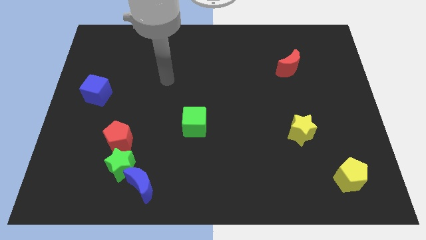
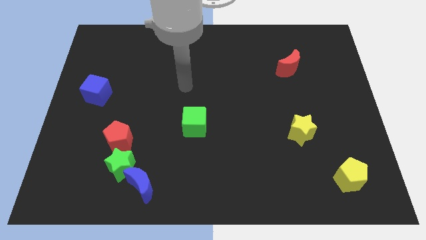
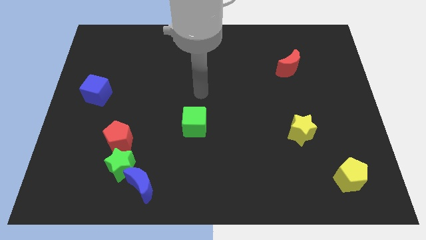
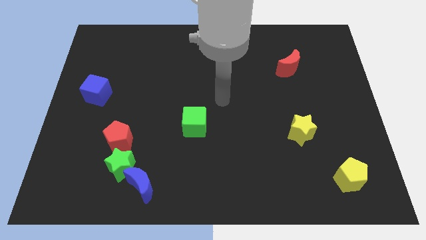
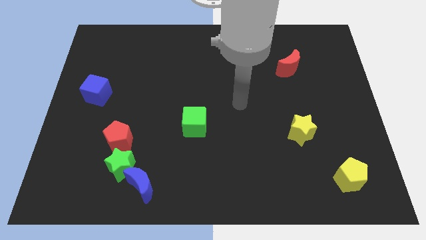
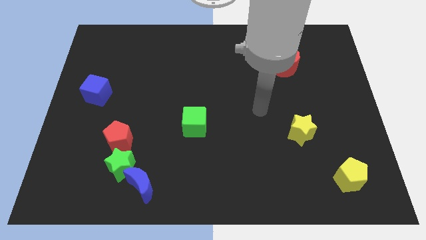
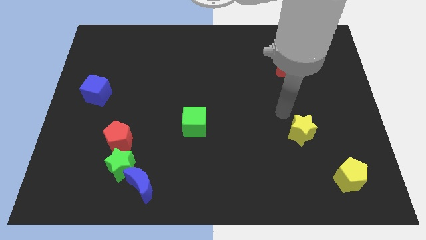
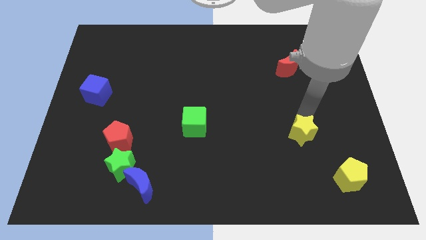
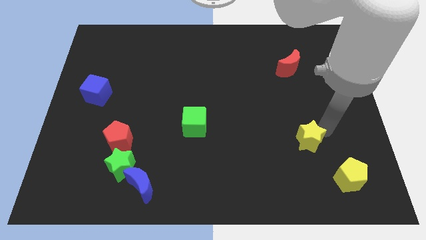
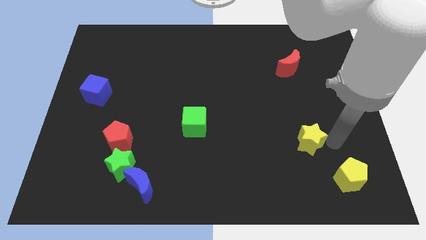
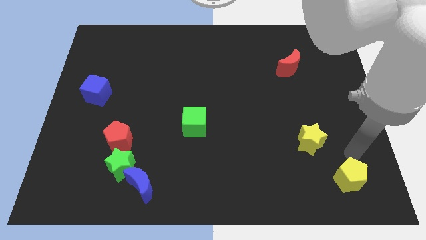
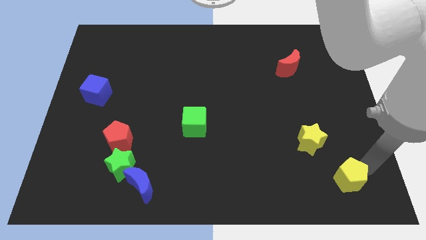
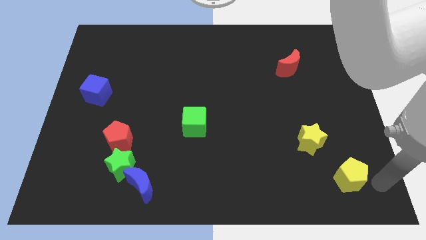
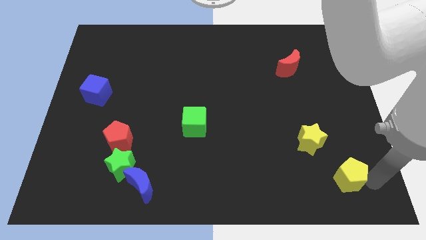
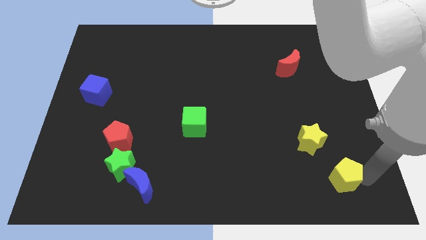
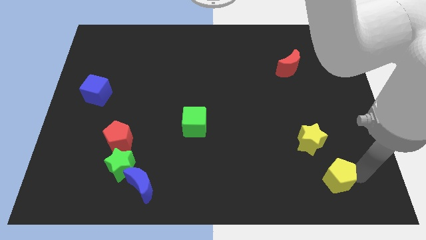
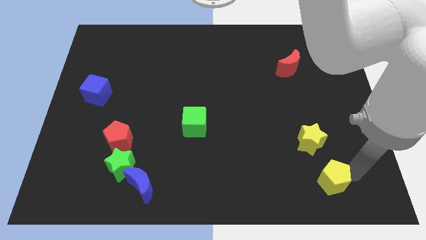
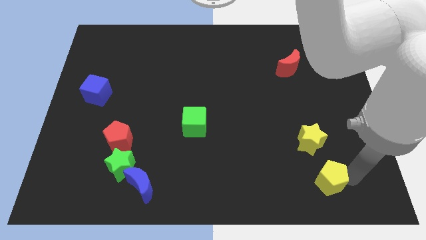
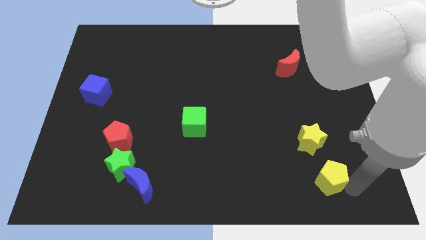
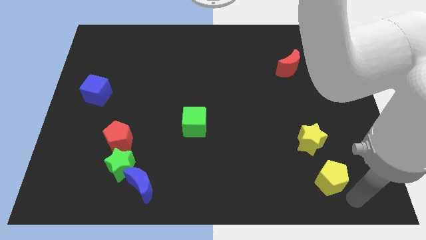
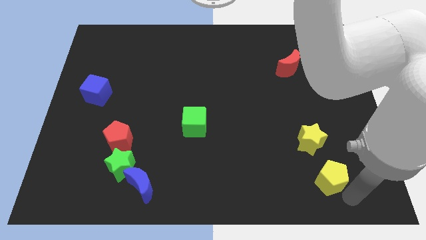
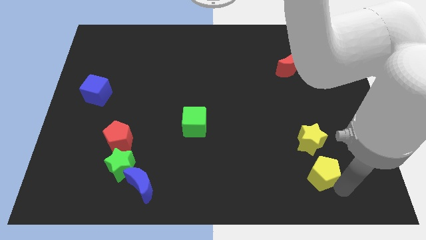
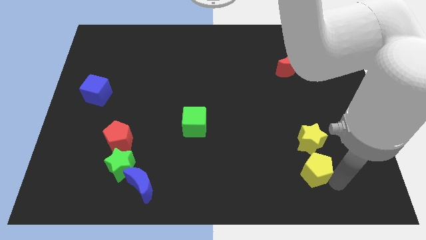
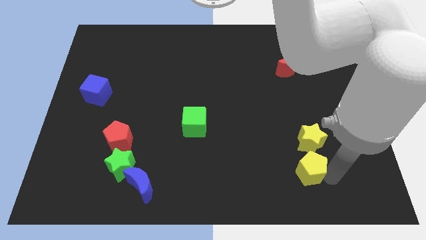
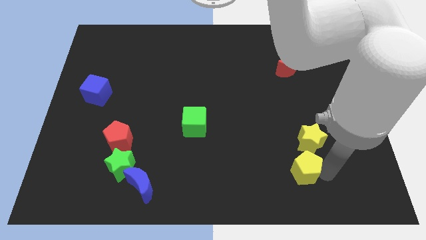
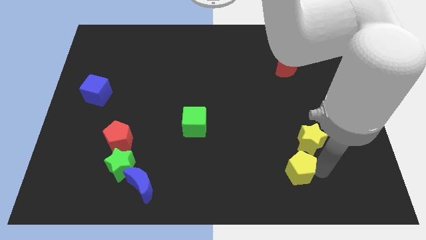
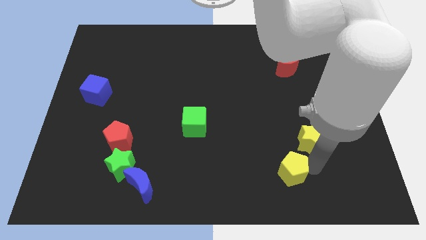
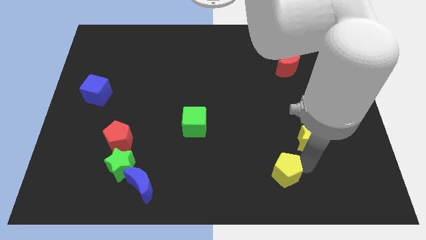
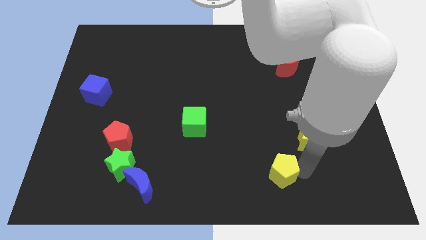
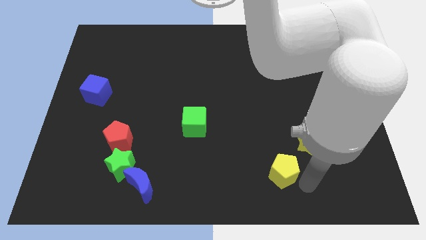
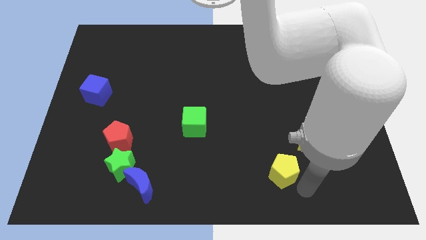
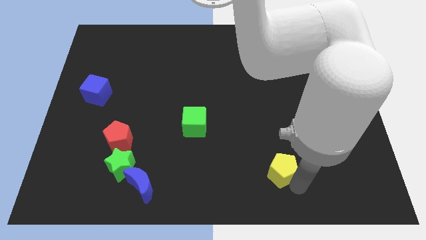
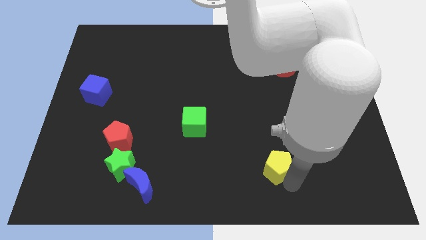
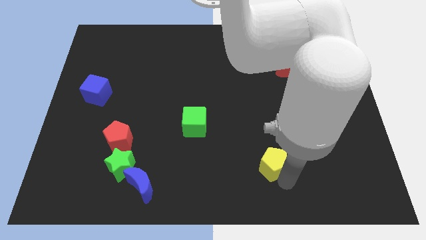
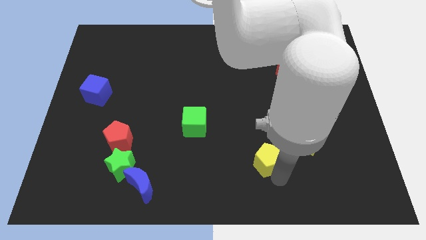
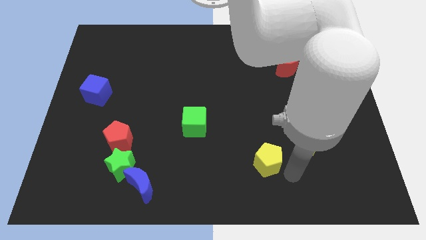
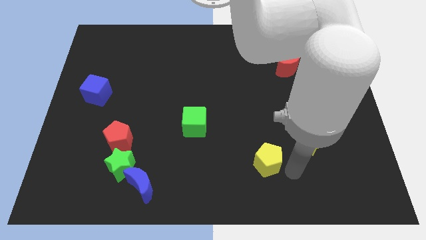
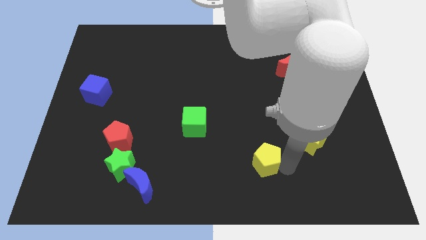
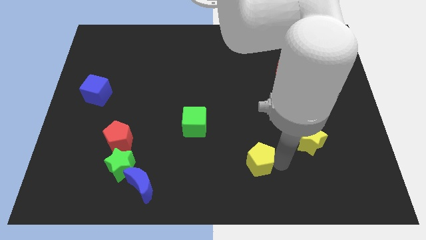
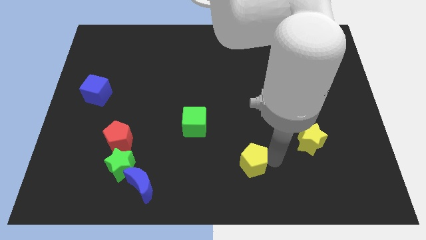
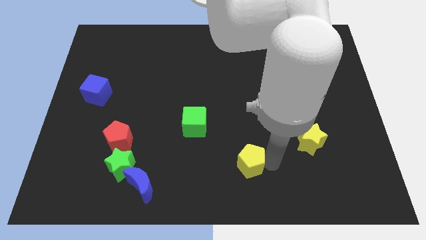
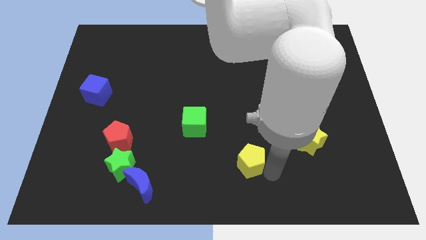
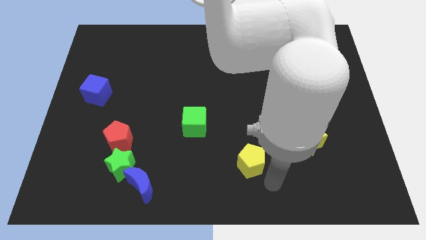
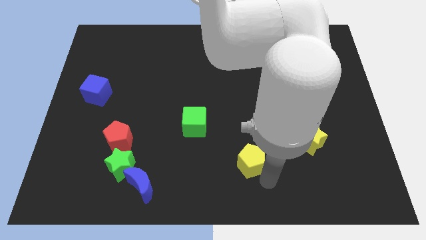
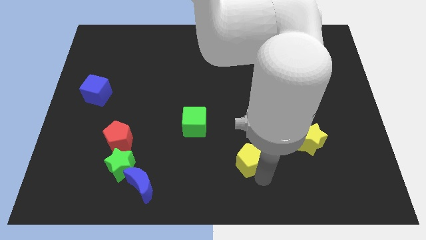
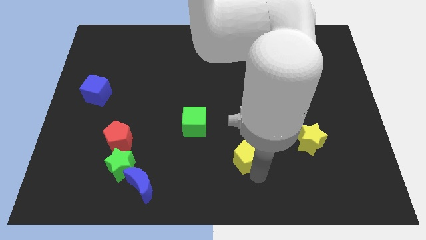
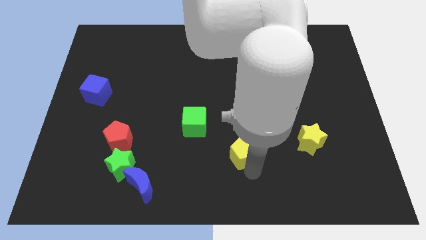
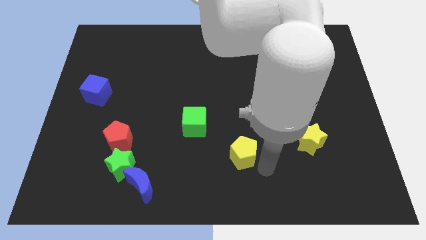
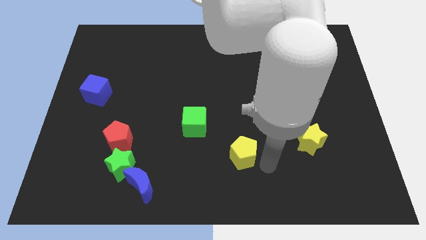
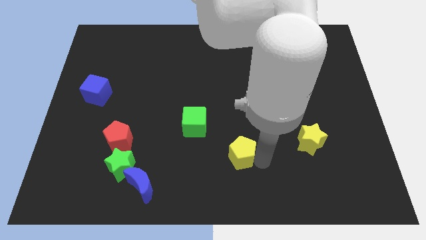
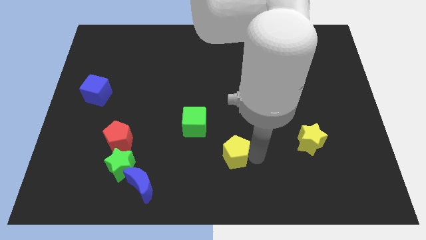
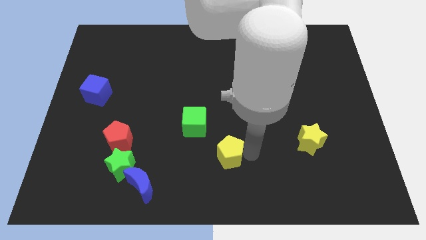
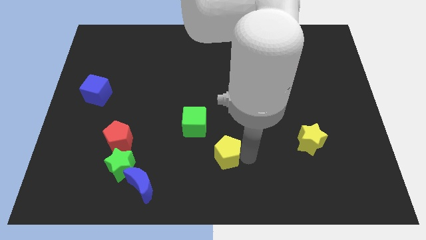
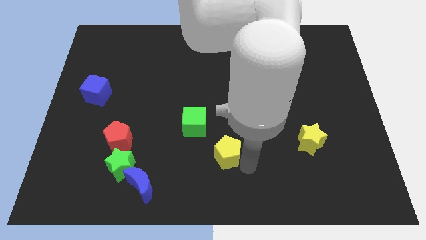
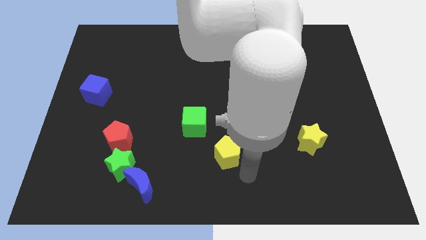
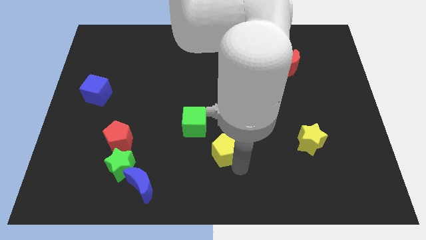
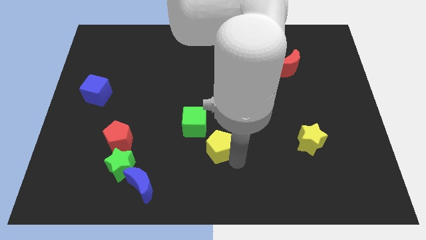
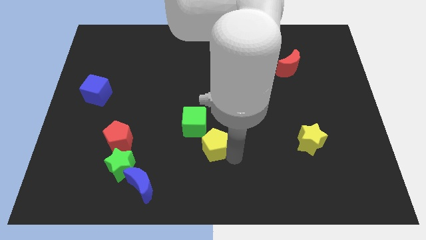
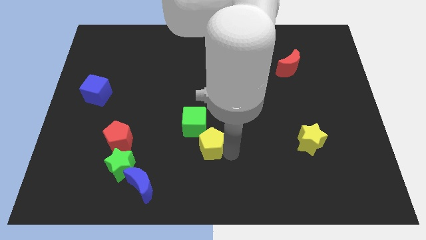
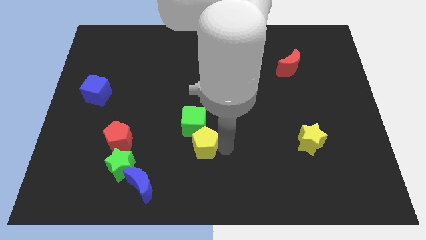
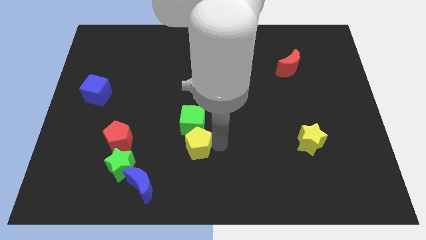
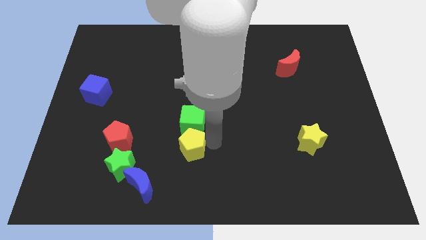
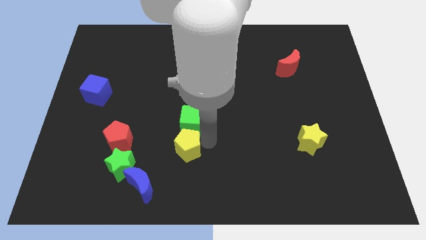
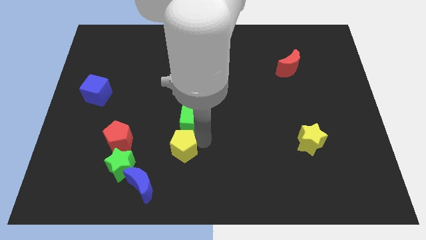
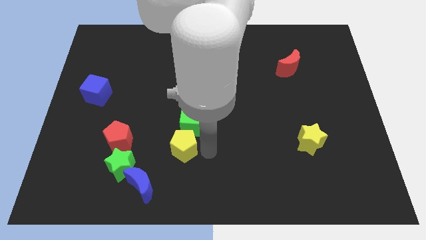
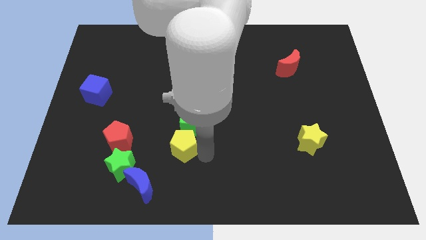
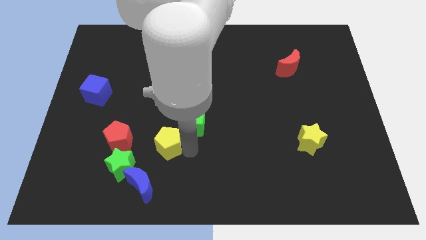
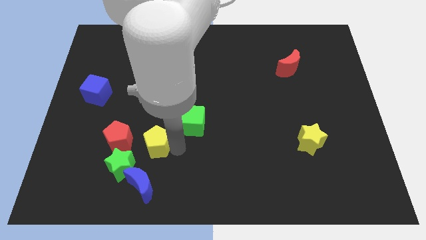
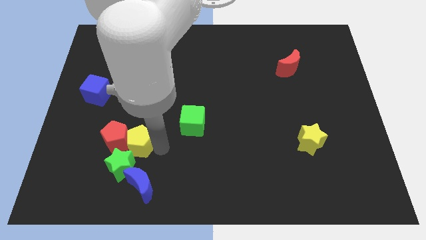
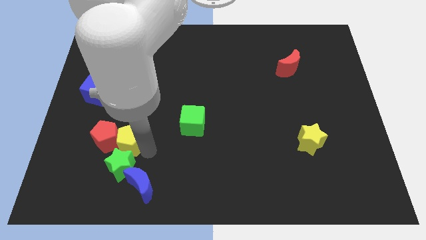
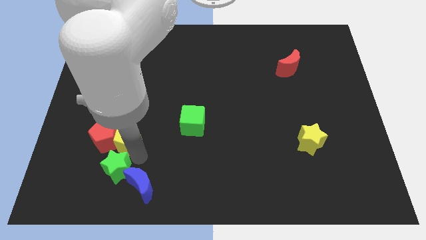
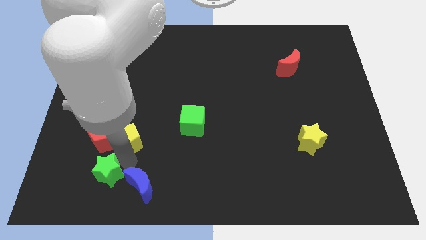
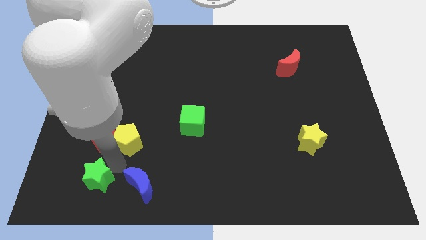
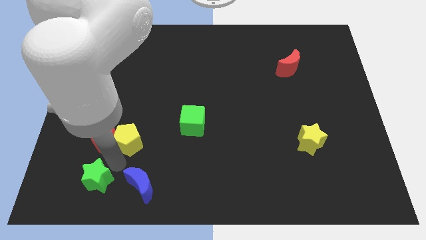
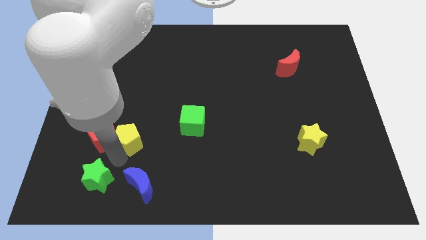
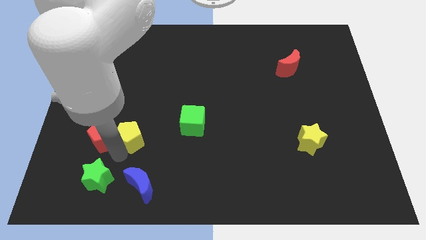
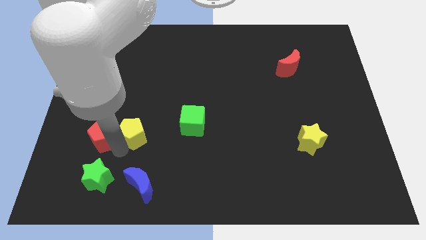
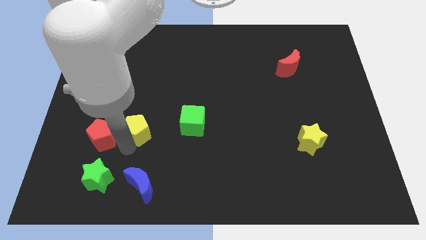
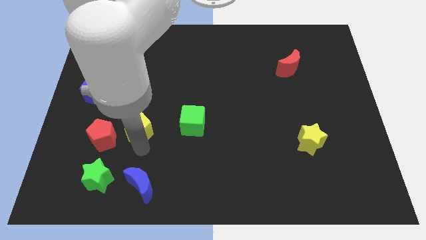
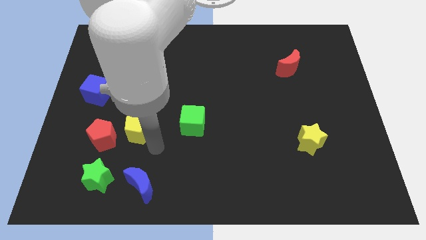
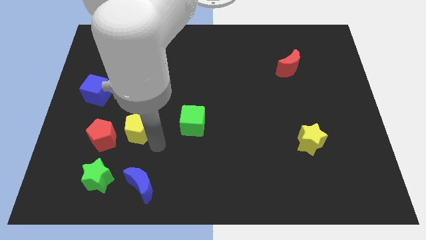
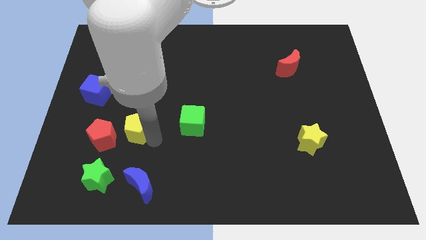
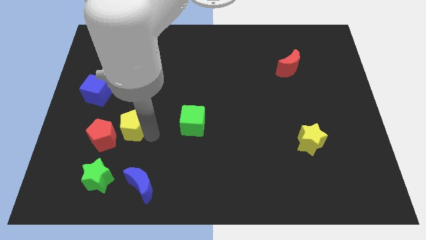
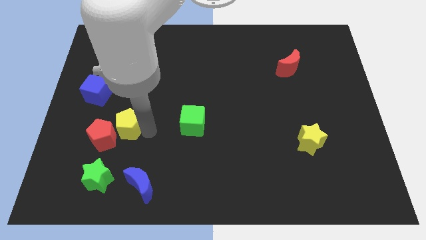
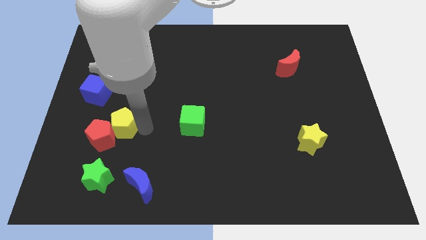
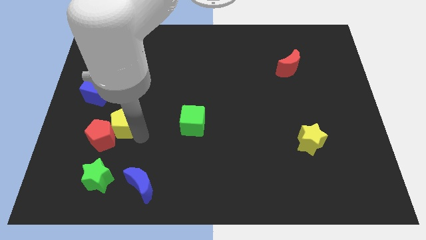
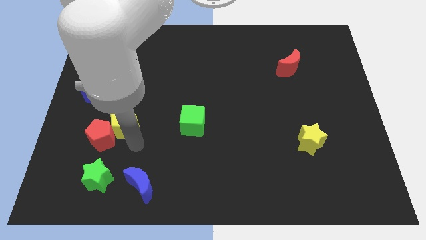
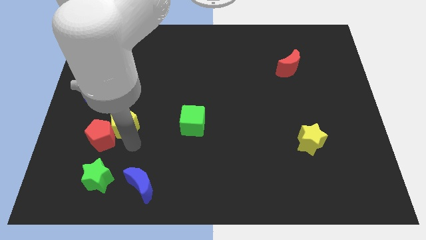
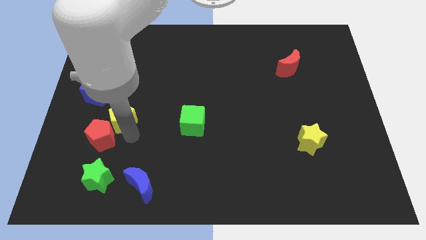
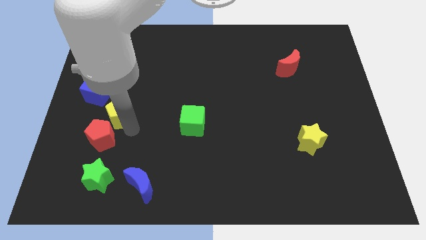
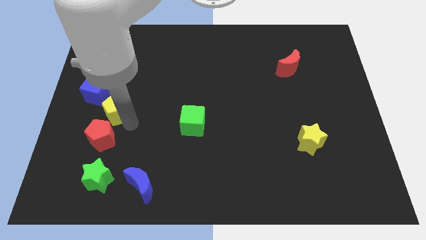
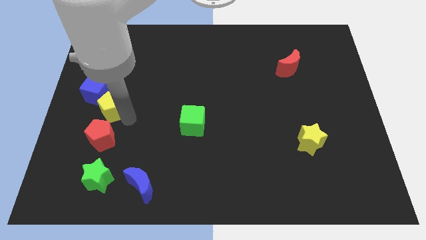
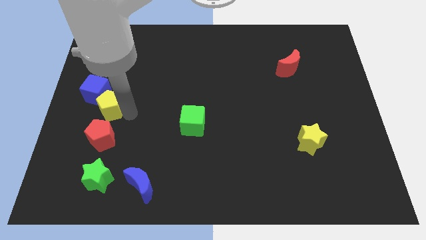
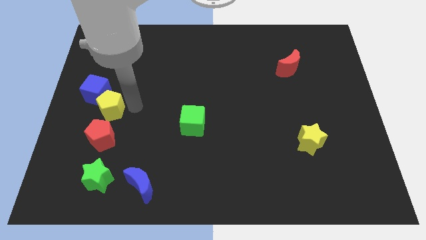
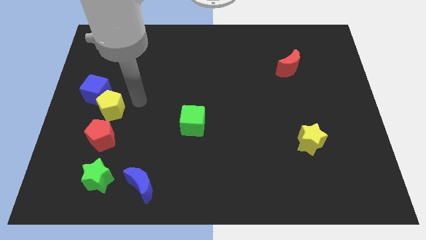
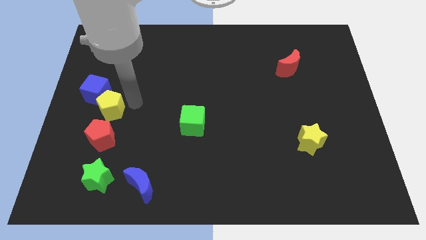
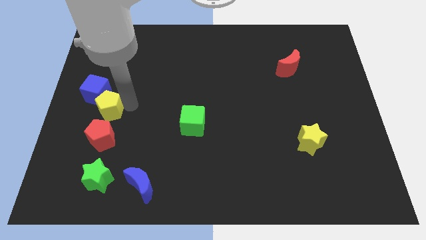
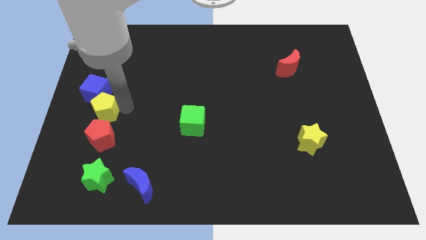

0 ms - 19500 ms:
push the yellow pentagon to the left side of the board
